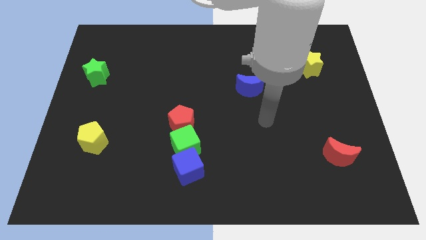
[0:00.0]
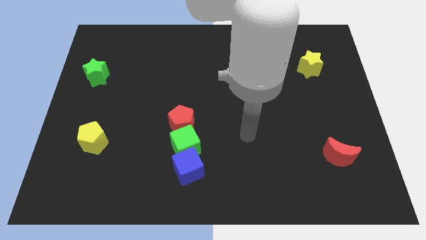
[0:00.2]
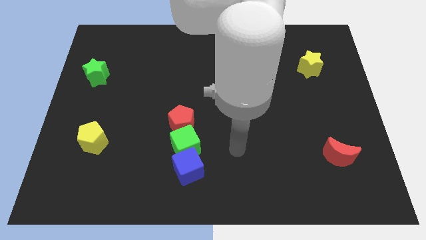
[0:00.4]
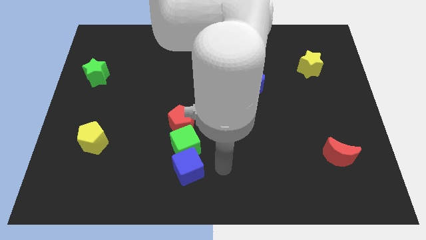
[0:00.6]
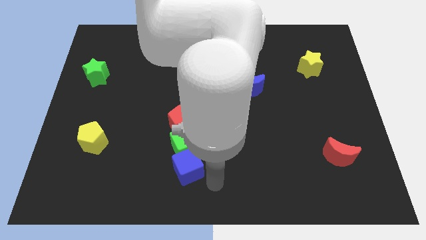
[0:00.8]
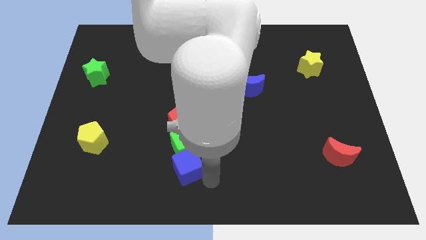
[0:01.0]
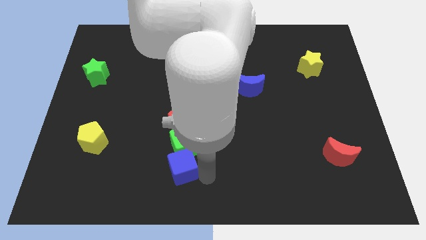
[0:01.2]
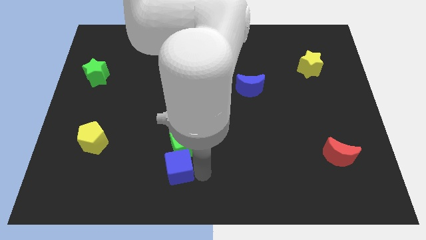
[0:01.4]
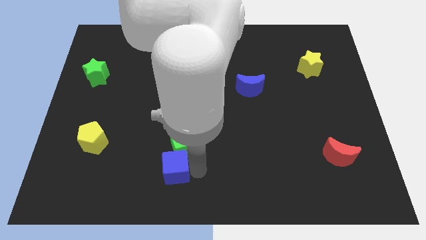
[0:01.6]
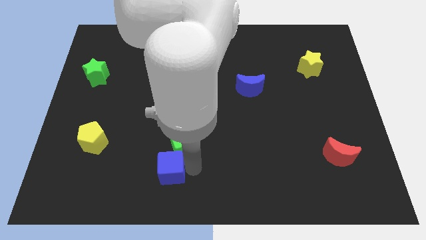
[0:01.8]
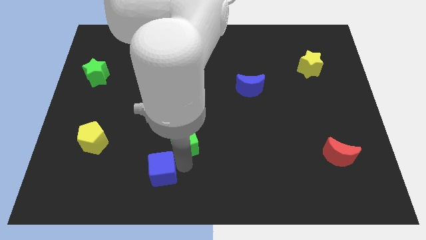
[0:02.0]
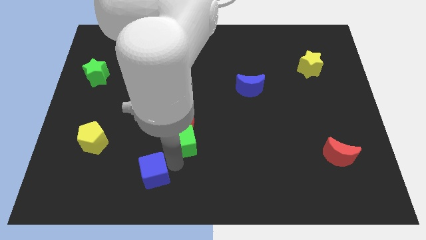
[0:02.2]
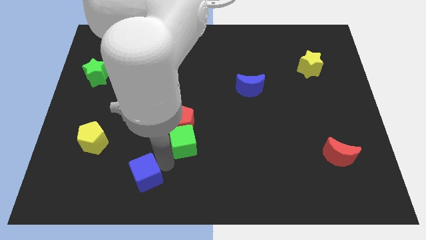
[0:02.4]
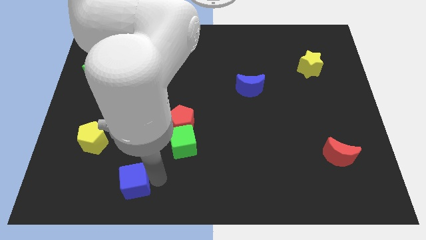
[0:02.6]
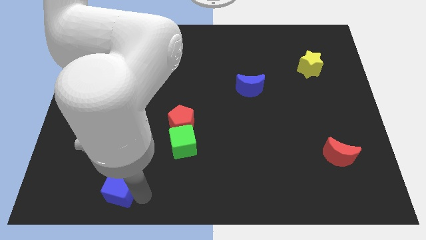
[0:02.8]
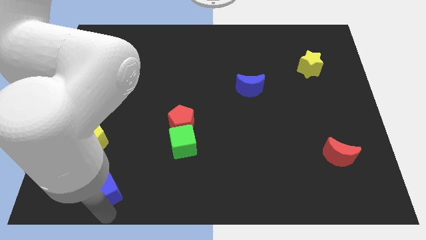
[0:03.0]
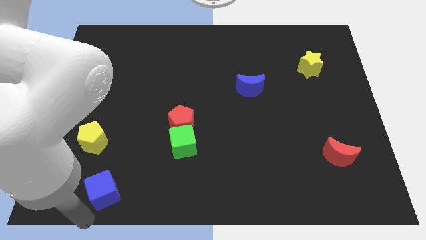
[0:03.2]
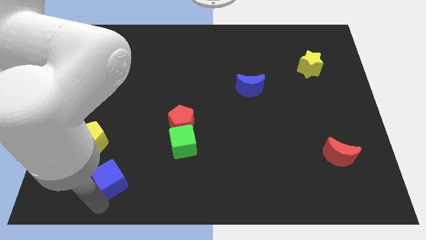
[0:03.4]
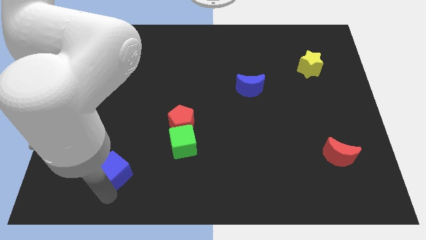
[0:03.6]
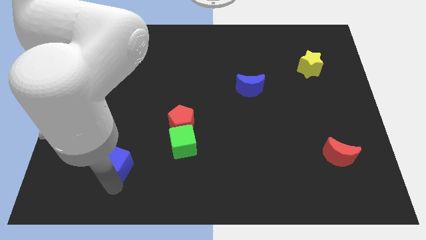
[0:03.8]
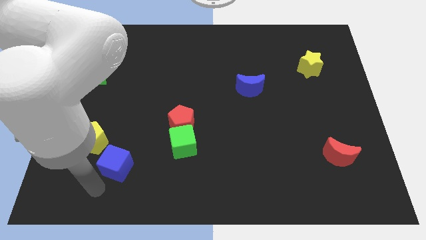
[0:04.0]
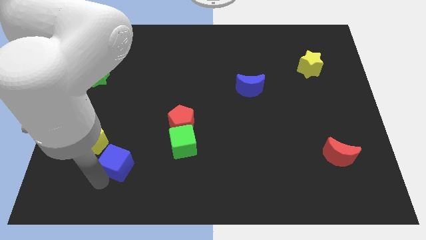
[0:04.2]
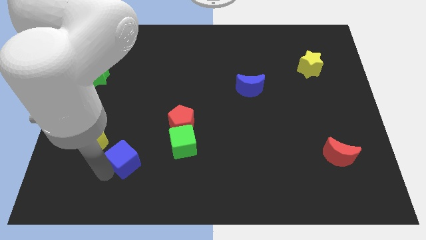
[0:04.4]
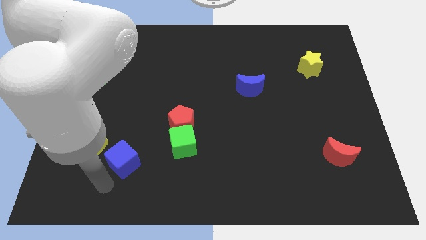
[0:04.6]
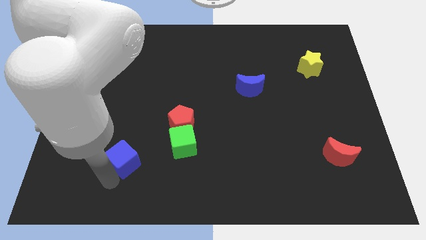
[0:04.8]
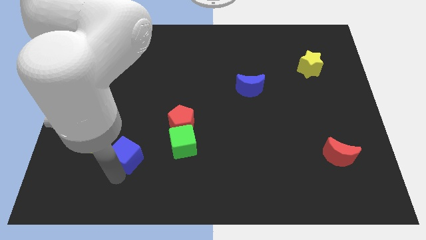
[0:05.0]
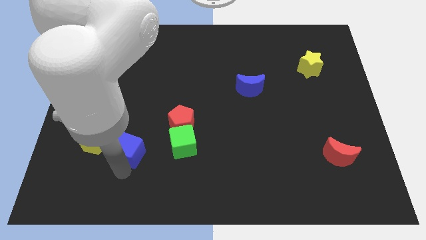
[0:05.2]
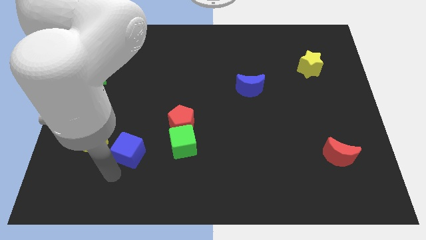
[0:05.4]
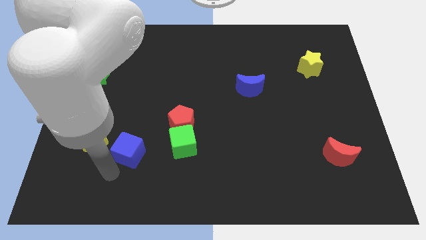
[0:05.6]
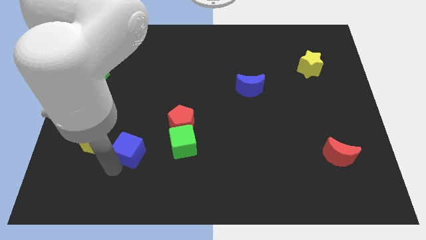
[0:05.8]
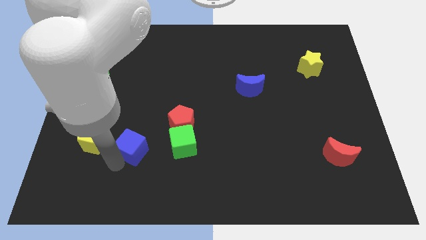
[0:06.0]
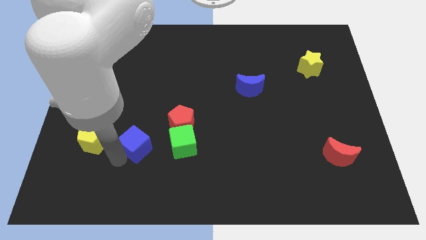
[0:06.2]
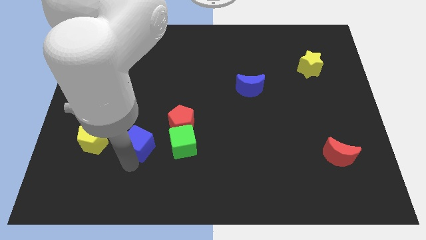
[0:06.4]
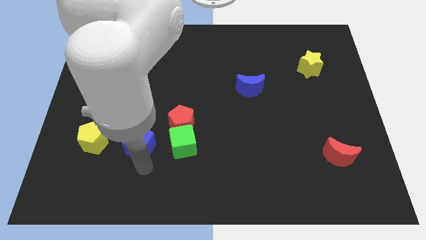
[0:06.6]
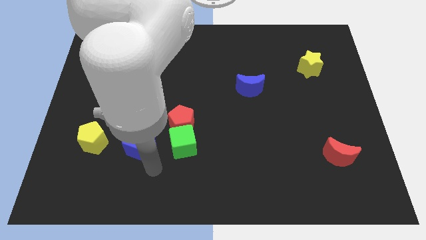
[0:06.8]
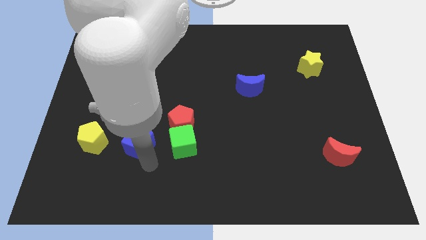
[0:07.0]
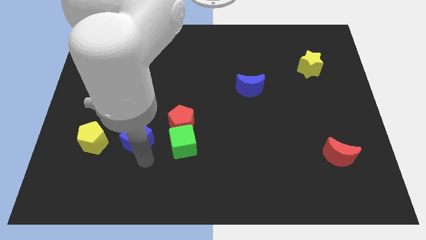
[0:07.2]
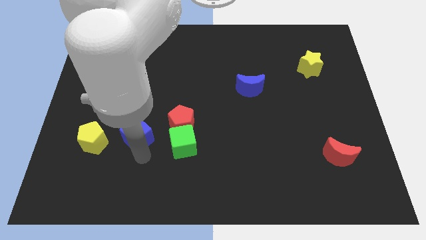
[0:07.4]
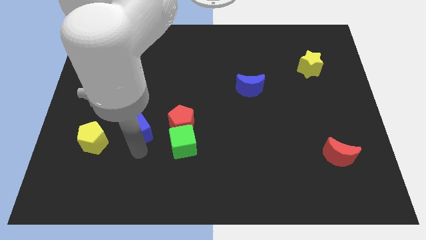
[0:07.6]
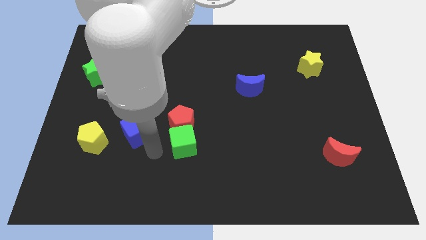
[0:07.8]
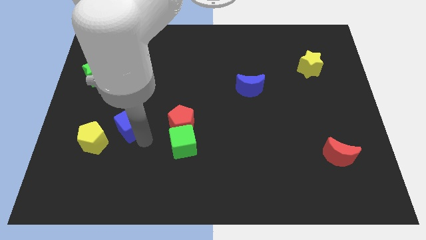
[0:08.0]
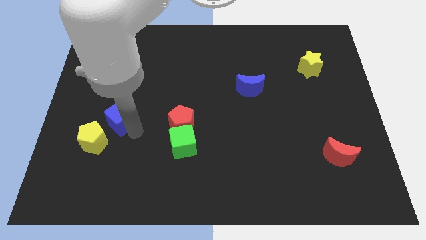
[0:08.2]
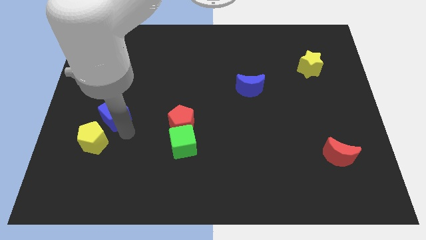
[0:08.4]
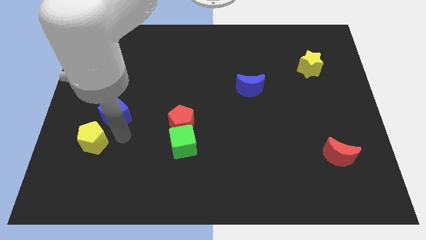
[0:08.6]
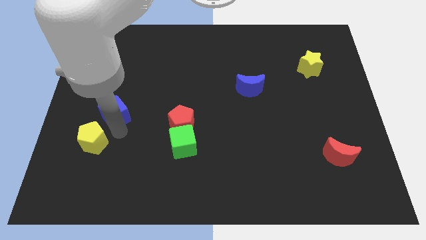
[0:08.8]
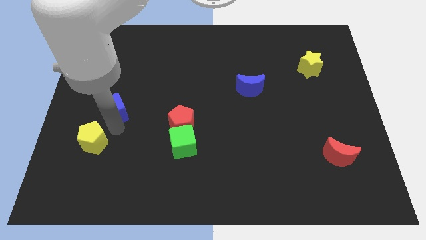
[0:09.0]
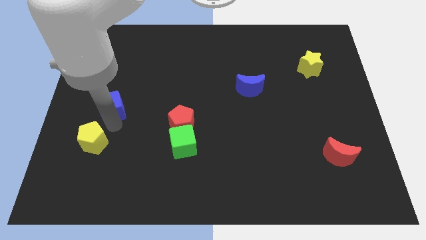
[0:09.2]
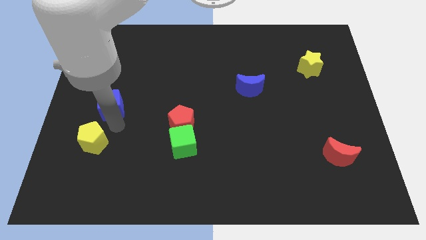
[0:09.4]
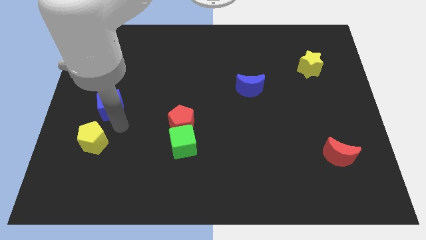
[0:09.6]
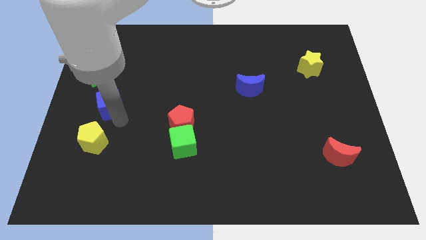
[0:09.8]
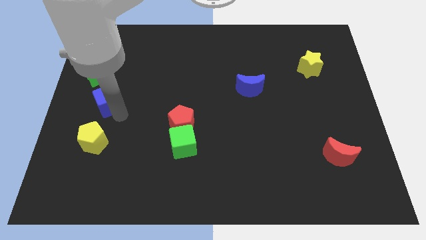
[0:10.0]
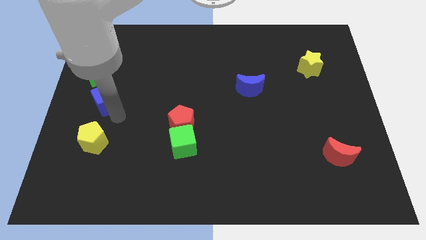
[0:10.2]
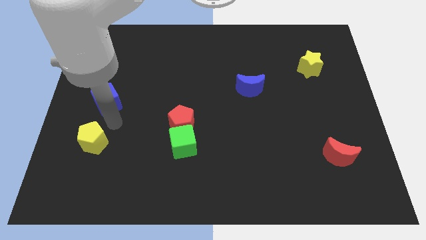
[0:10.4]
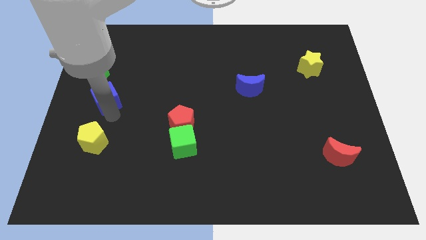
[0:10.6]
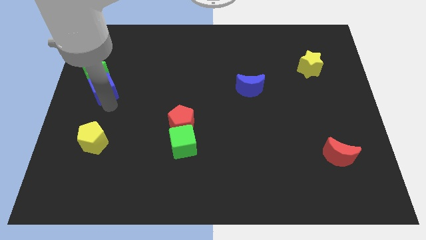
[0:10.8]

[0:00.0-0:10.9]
push the blue cube close to the green star

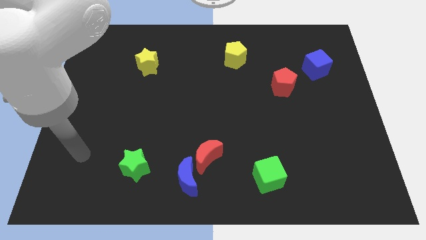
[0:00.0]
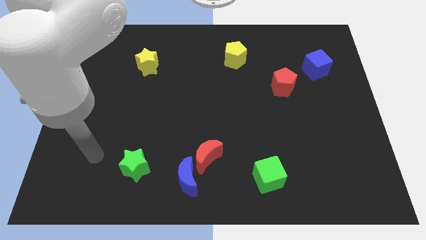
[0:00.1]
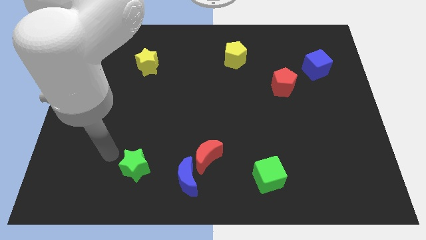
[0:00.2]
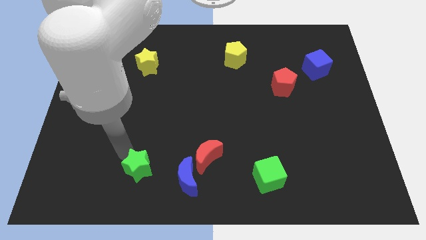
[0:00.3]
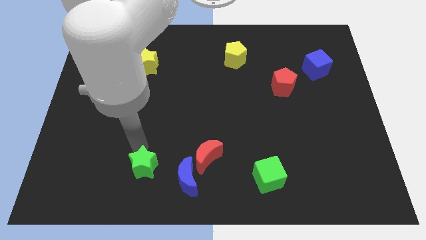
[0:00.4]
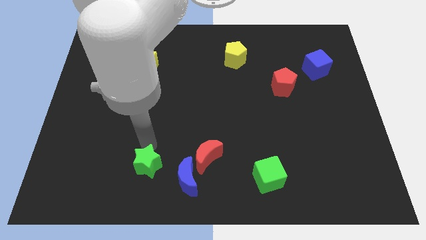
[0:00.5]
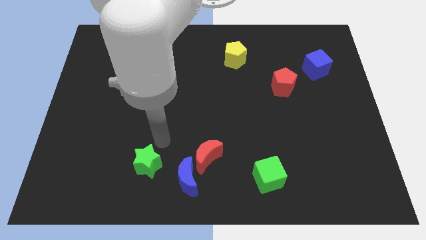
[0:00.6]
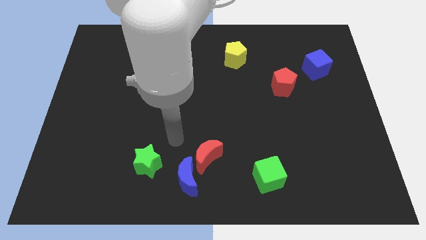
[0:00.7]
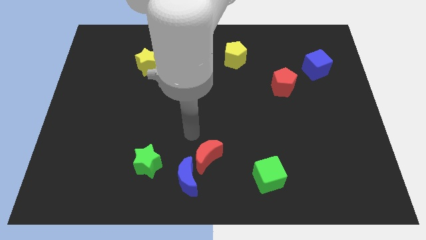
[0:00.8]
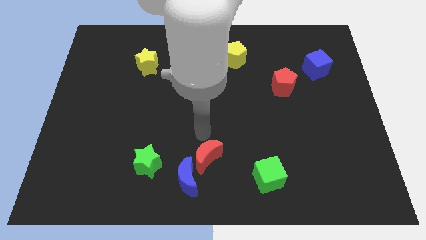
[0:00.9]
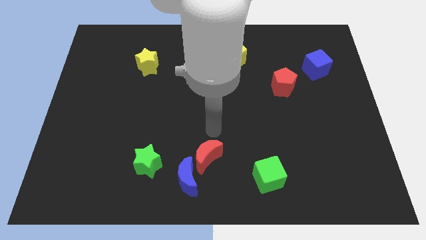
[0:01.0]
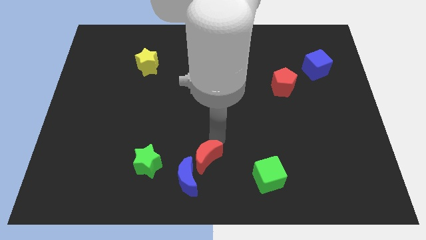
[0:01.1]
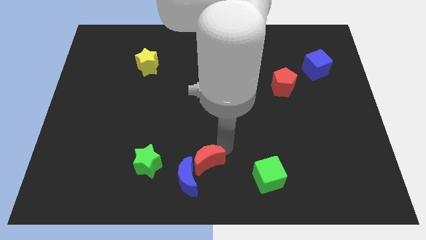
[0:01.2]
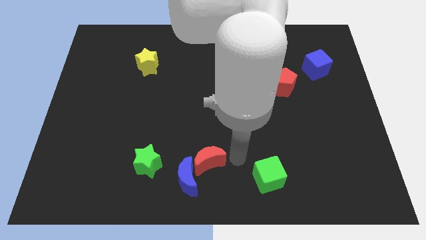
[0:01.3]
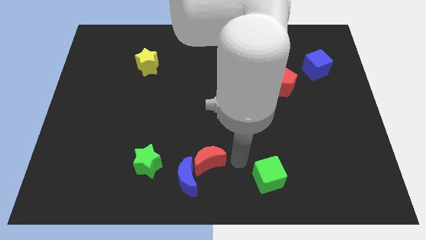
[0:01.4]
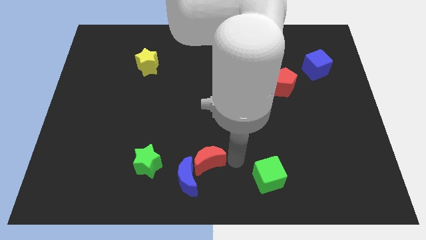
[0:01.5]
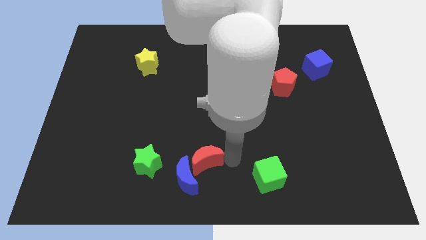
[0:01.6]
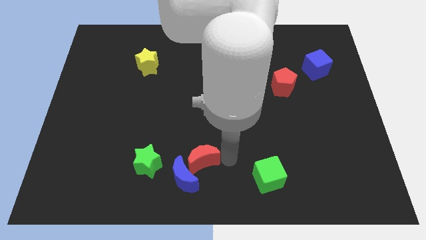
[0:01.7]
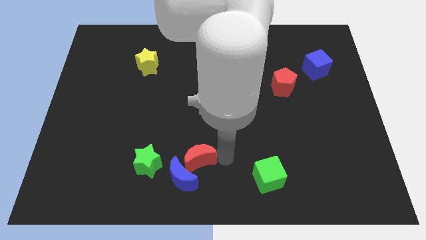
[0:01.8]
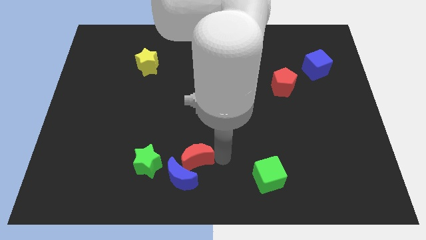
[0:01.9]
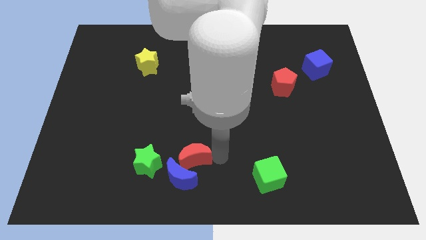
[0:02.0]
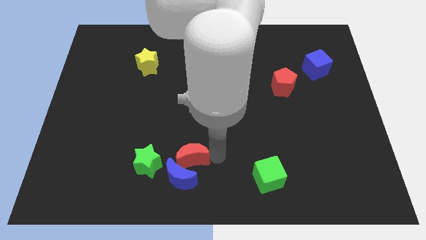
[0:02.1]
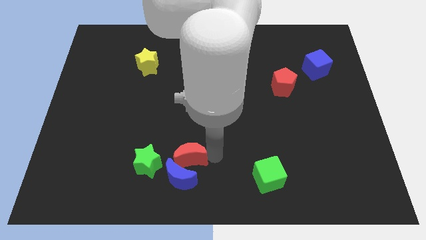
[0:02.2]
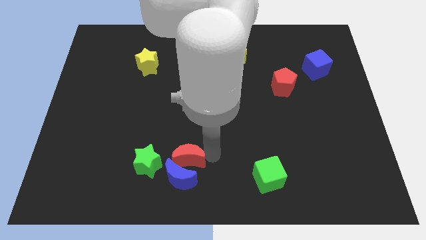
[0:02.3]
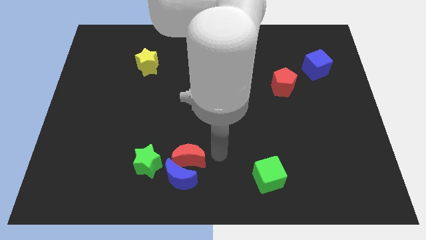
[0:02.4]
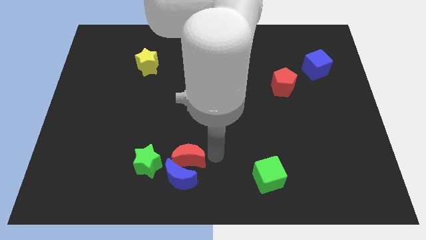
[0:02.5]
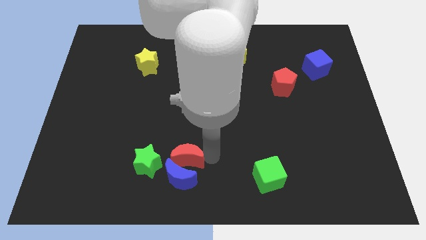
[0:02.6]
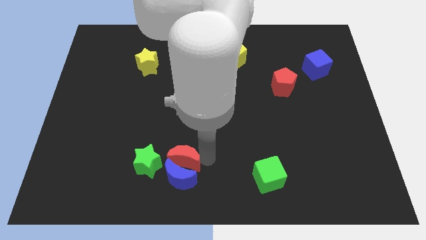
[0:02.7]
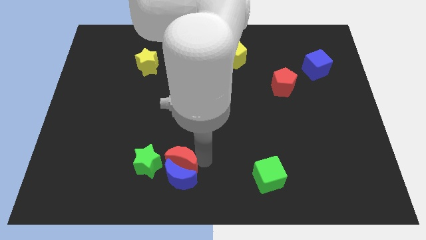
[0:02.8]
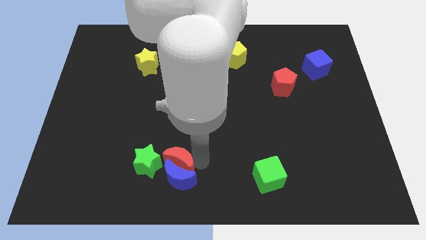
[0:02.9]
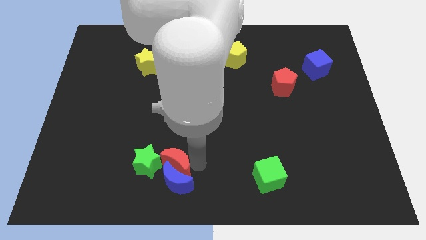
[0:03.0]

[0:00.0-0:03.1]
slide the red moon close to the green star
